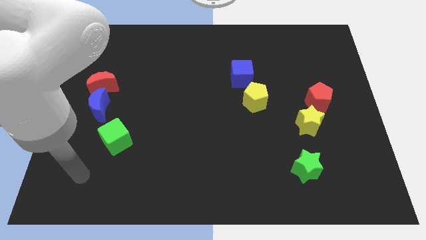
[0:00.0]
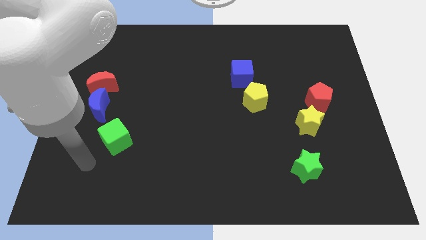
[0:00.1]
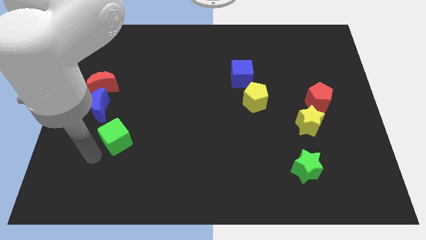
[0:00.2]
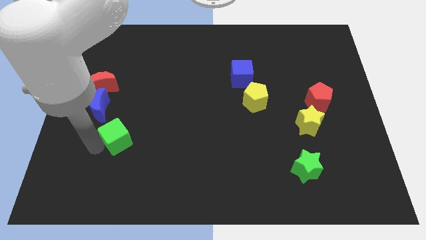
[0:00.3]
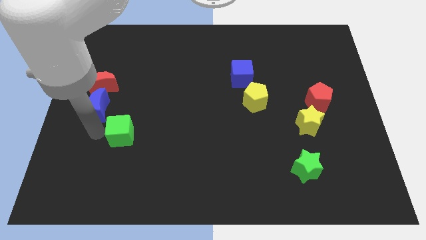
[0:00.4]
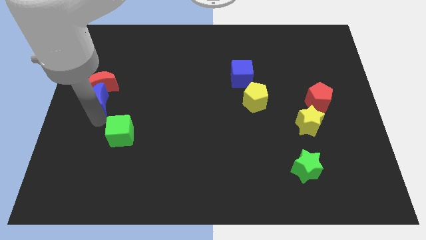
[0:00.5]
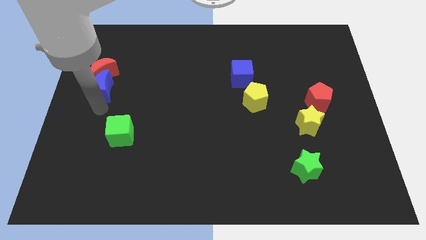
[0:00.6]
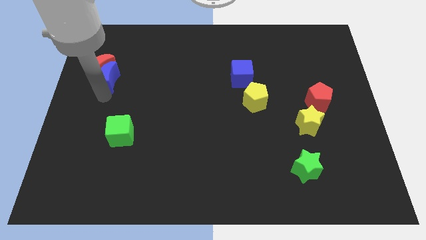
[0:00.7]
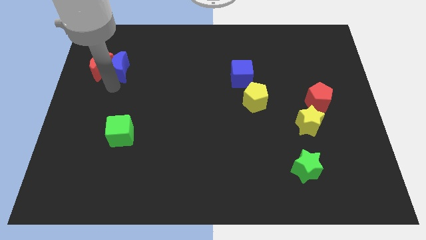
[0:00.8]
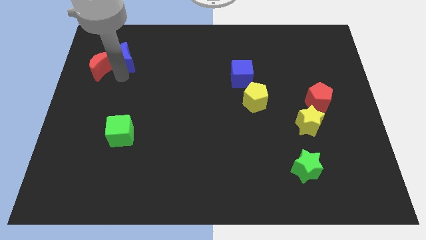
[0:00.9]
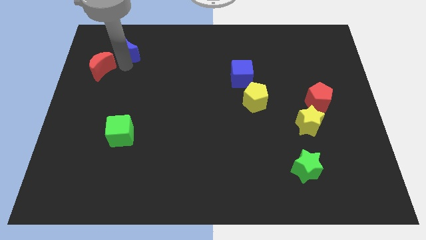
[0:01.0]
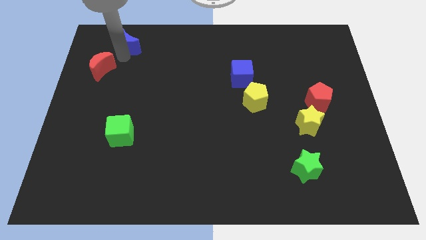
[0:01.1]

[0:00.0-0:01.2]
pull the red moon apart from the blue moon

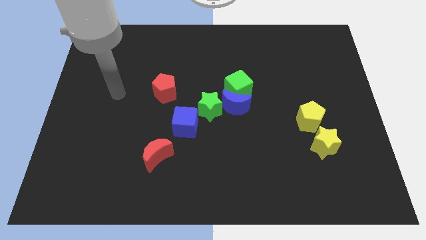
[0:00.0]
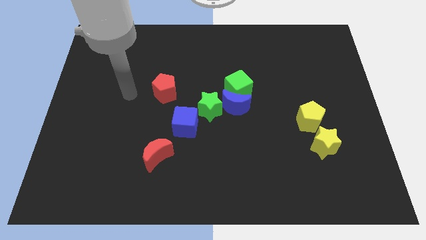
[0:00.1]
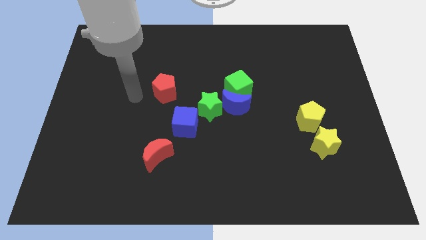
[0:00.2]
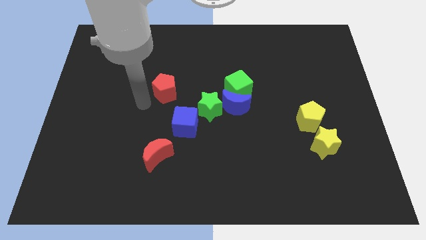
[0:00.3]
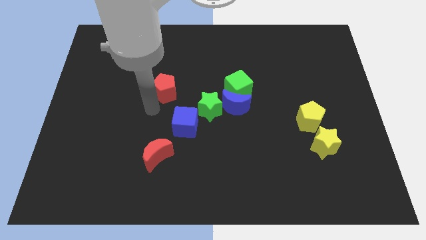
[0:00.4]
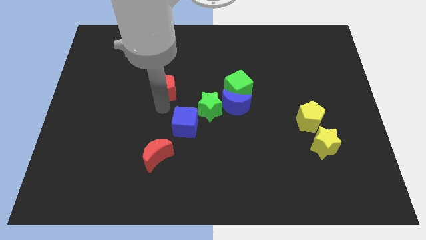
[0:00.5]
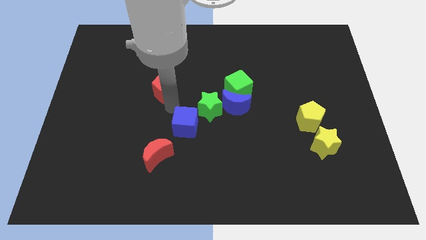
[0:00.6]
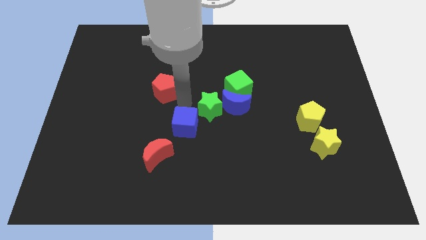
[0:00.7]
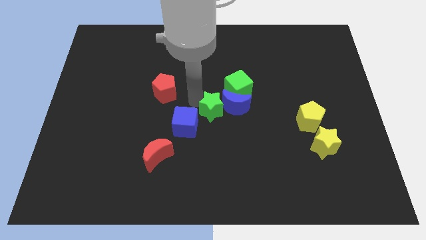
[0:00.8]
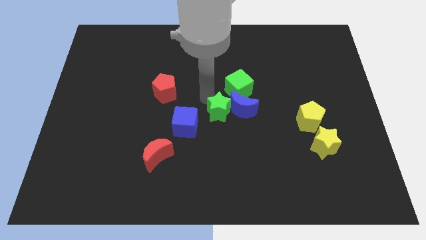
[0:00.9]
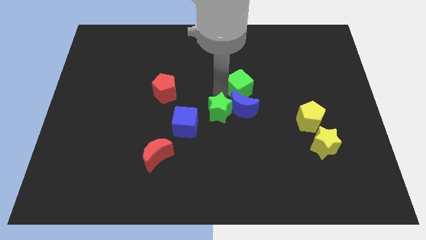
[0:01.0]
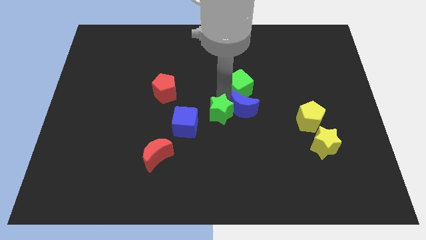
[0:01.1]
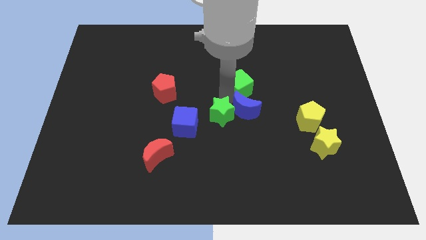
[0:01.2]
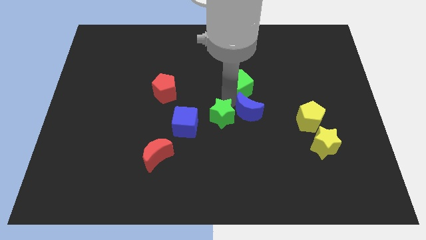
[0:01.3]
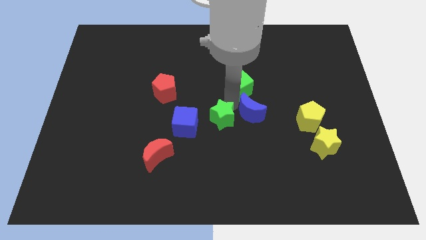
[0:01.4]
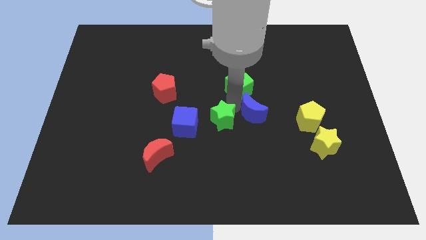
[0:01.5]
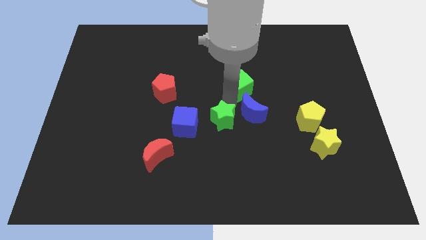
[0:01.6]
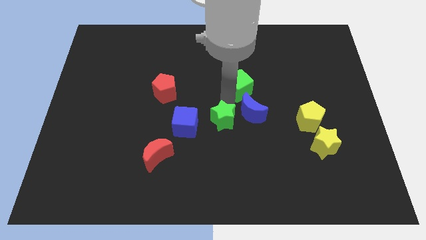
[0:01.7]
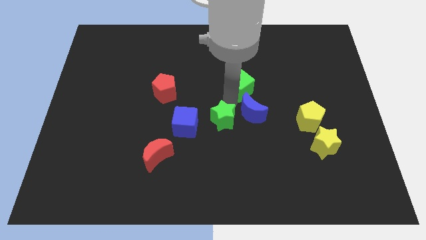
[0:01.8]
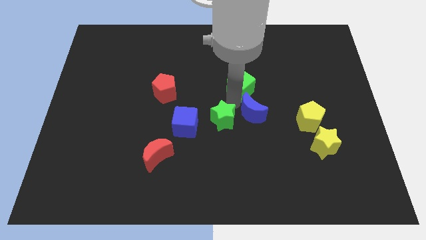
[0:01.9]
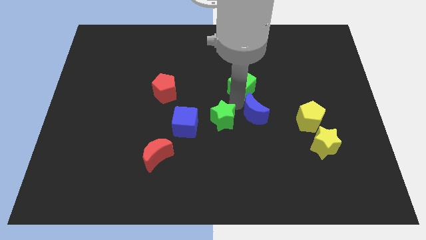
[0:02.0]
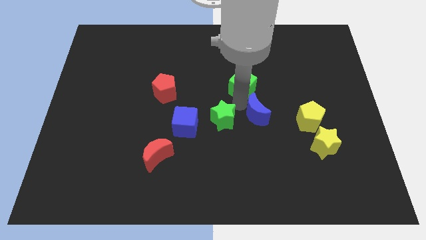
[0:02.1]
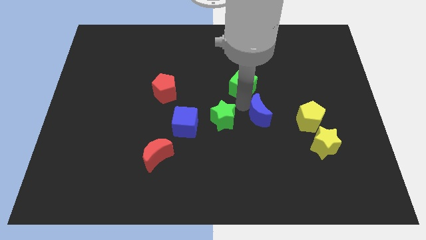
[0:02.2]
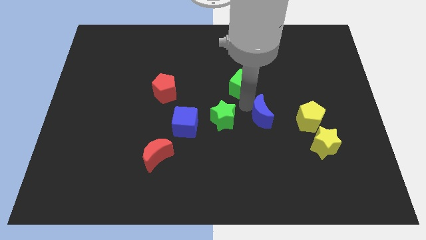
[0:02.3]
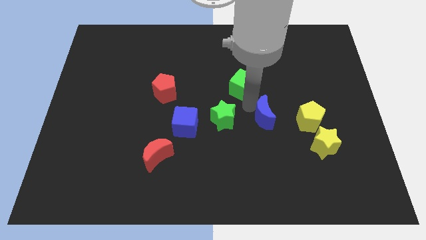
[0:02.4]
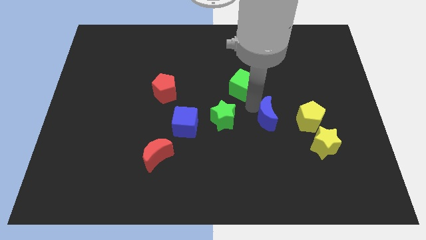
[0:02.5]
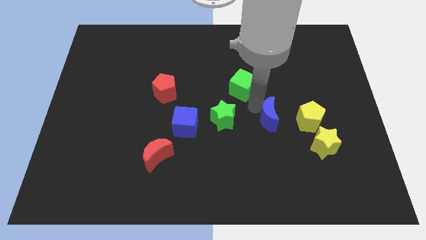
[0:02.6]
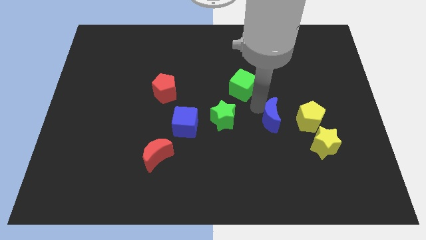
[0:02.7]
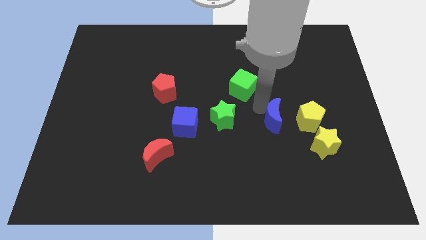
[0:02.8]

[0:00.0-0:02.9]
separate the blue moon from the green cube and green star

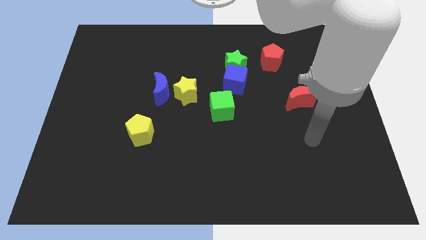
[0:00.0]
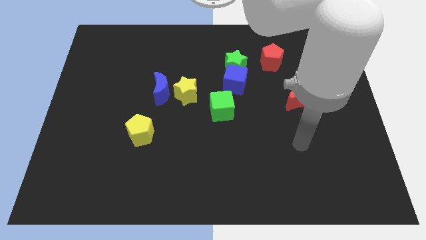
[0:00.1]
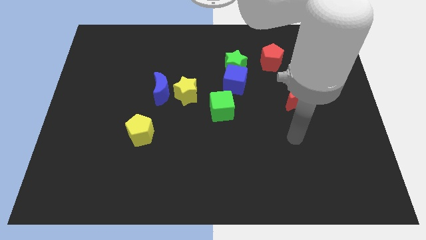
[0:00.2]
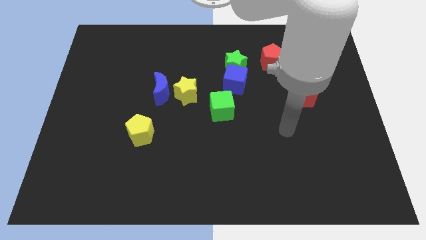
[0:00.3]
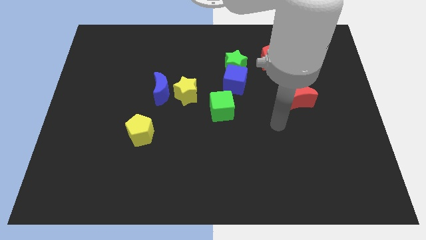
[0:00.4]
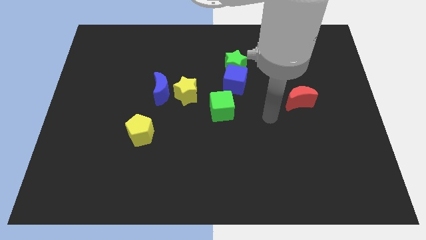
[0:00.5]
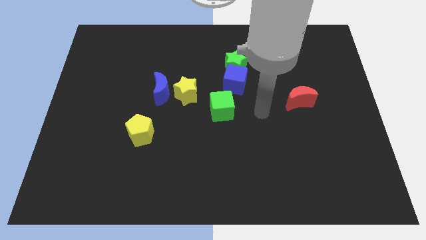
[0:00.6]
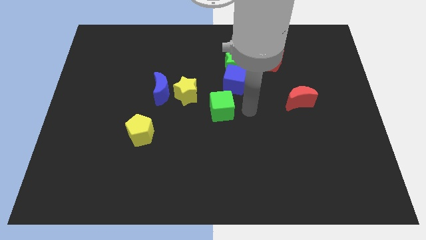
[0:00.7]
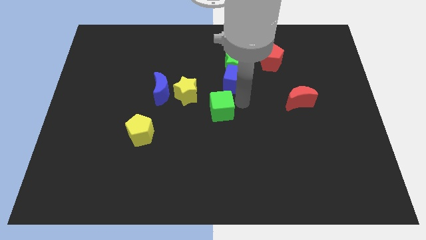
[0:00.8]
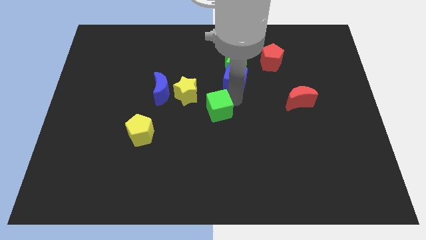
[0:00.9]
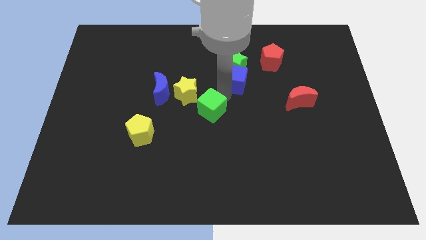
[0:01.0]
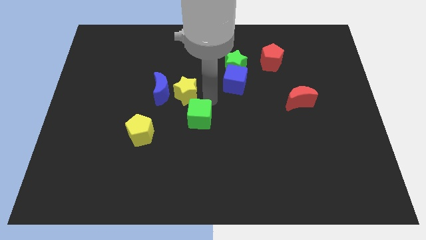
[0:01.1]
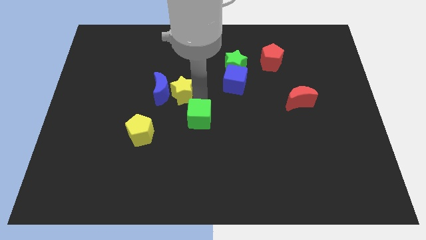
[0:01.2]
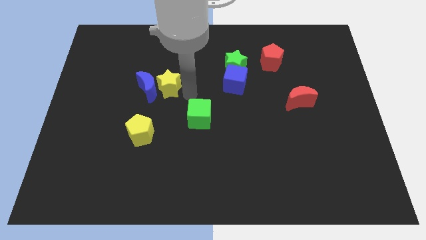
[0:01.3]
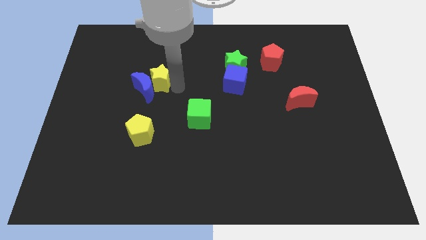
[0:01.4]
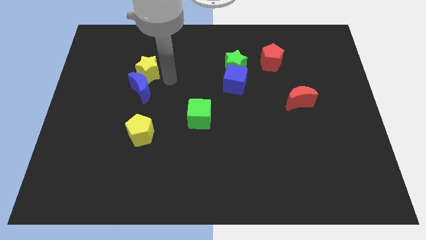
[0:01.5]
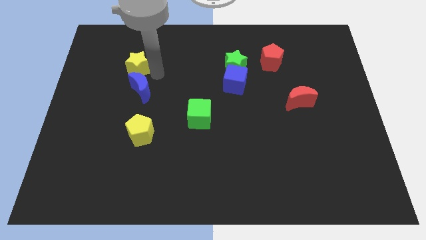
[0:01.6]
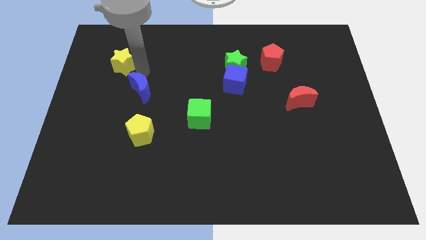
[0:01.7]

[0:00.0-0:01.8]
pull the blue moon apart from the yellow star

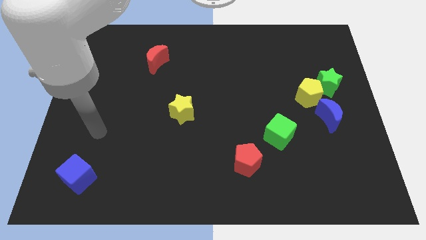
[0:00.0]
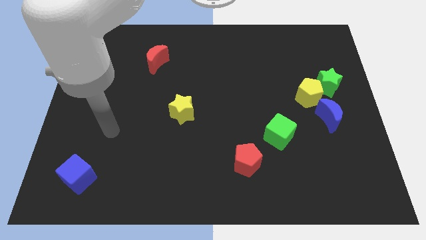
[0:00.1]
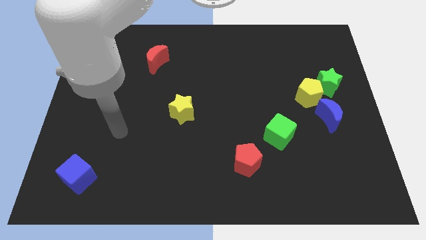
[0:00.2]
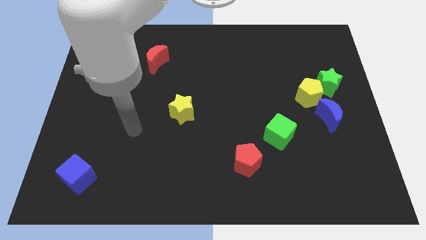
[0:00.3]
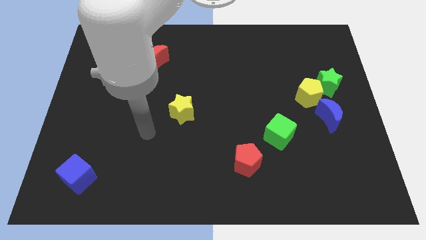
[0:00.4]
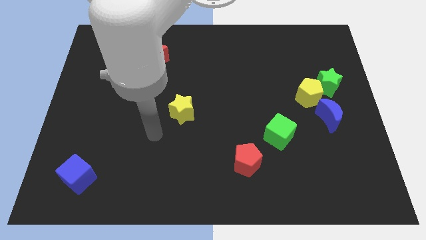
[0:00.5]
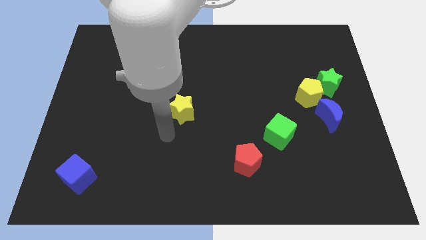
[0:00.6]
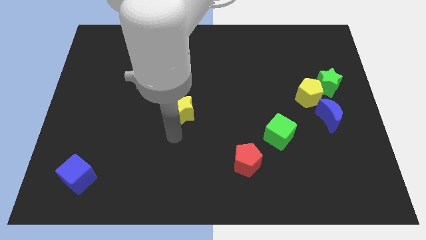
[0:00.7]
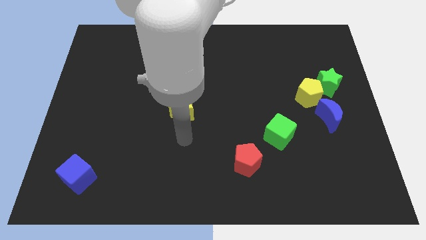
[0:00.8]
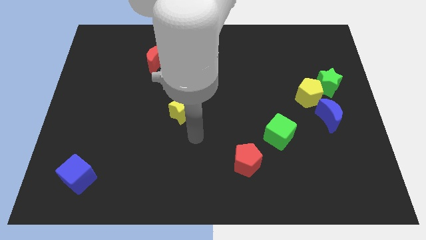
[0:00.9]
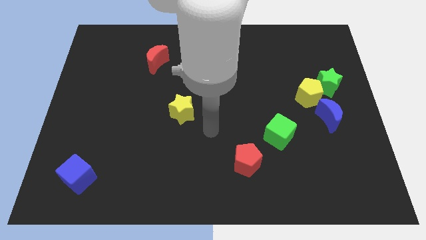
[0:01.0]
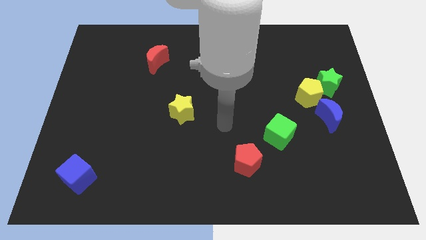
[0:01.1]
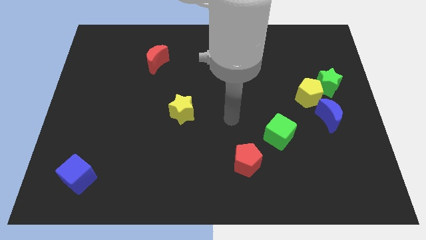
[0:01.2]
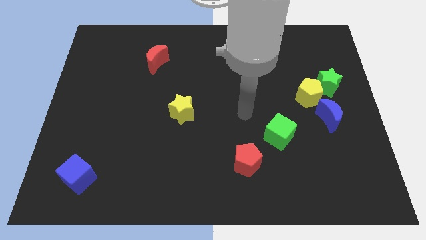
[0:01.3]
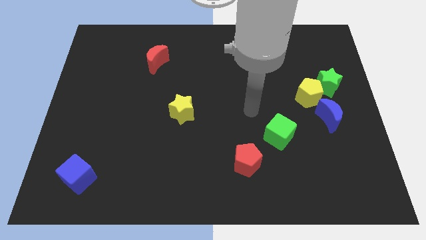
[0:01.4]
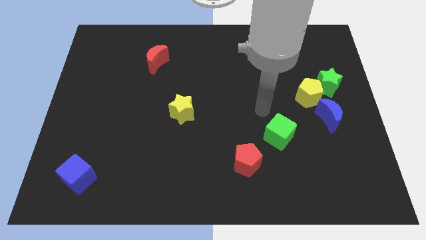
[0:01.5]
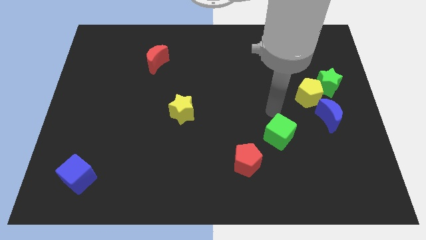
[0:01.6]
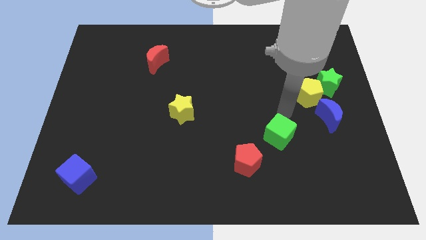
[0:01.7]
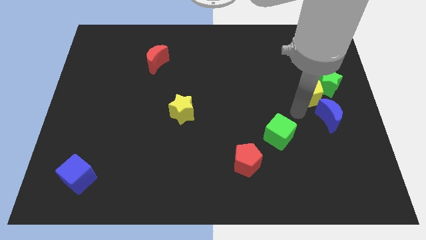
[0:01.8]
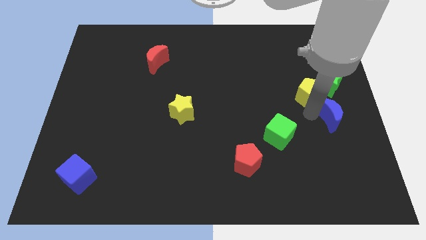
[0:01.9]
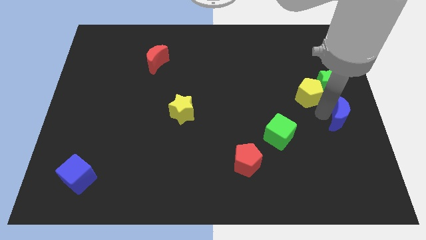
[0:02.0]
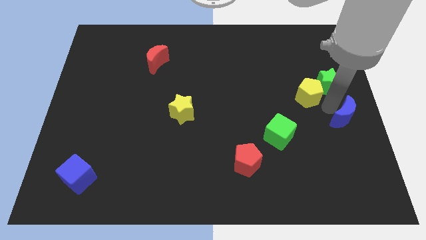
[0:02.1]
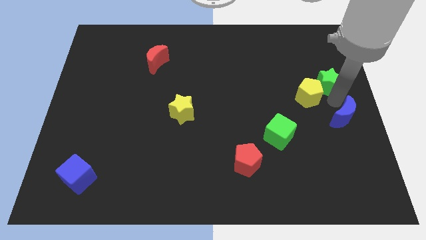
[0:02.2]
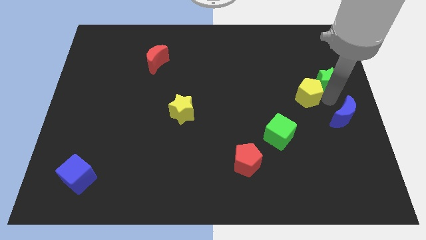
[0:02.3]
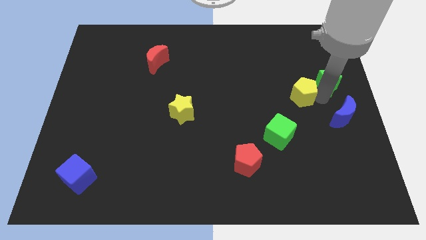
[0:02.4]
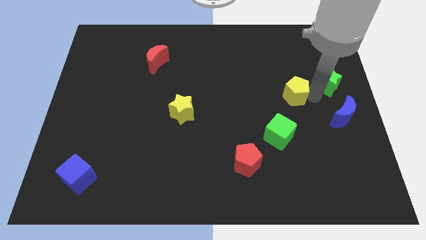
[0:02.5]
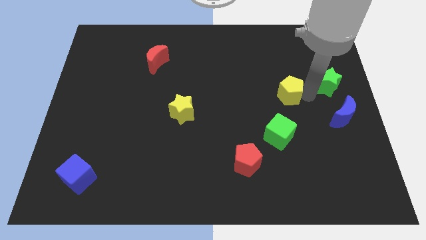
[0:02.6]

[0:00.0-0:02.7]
move the yellow pentagon away from the green star and blue moon

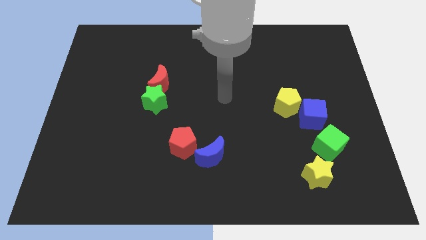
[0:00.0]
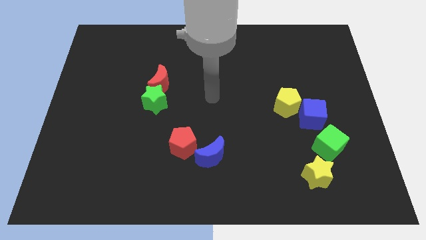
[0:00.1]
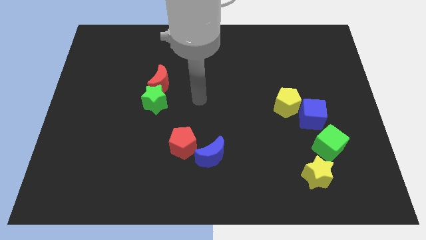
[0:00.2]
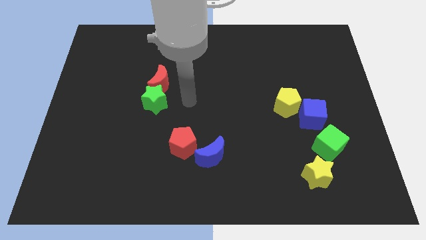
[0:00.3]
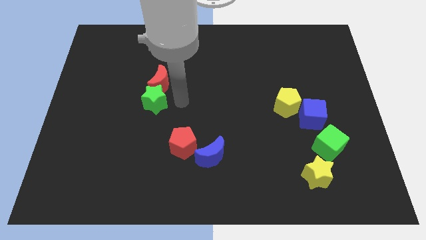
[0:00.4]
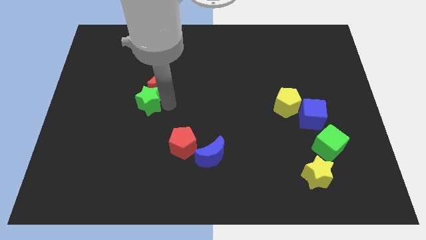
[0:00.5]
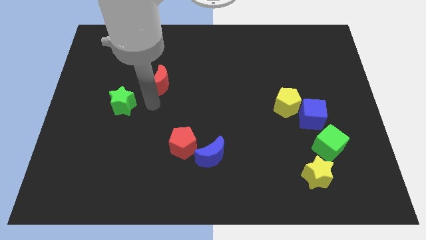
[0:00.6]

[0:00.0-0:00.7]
move the red moon away from the green star
